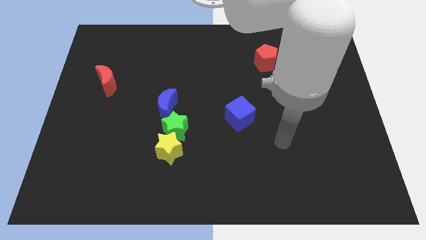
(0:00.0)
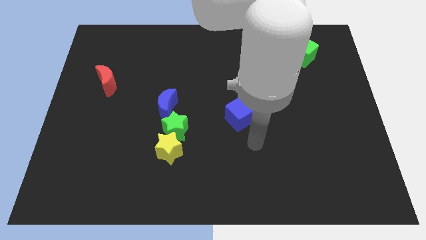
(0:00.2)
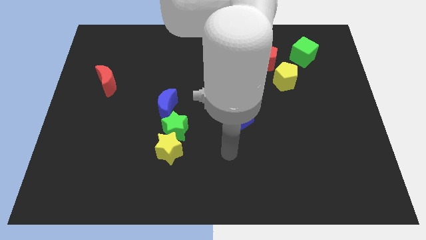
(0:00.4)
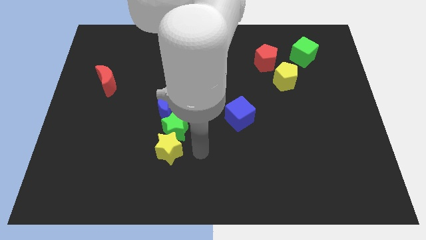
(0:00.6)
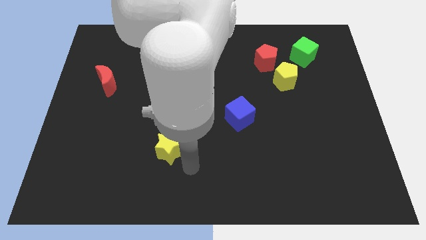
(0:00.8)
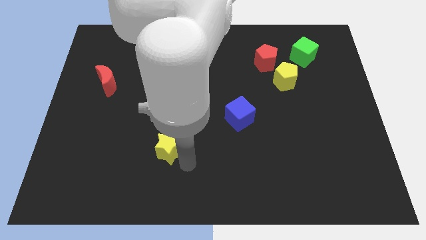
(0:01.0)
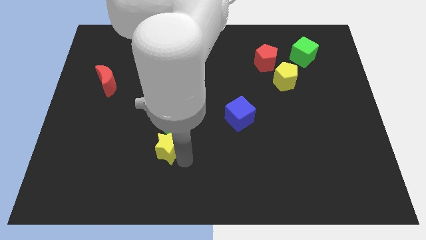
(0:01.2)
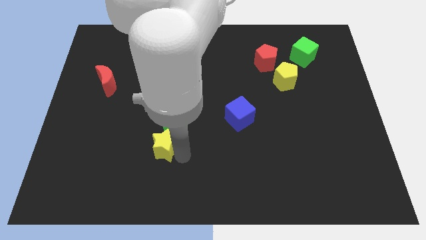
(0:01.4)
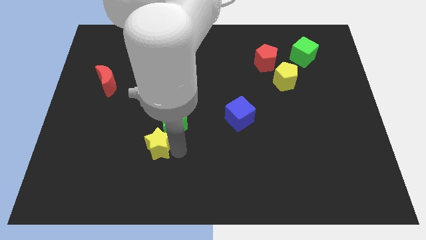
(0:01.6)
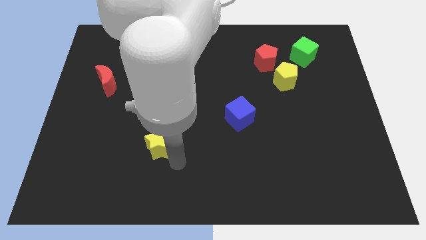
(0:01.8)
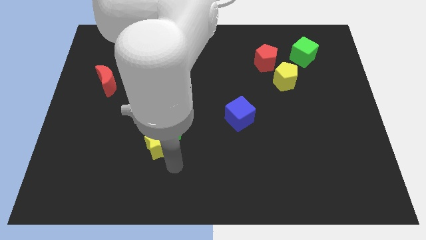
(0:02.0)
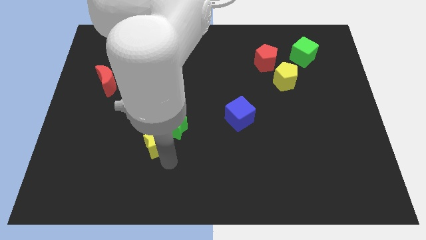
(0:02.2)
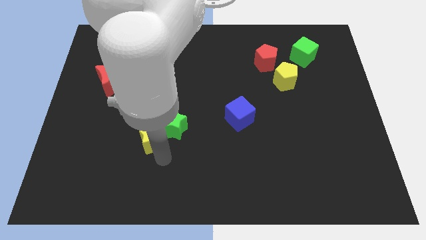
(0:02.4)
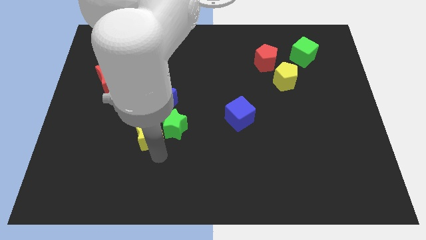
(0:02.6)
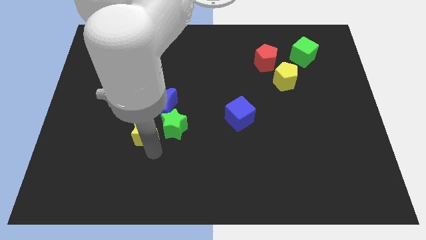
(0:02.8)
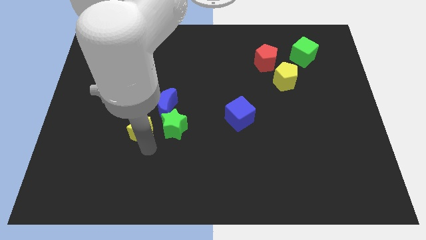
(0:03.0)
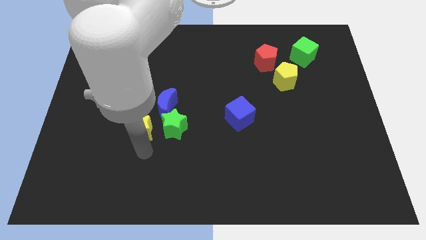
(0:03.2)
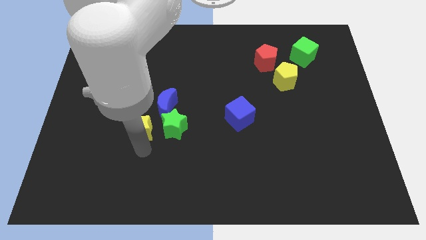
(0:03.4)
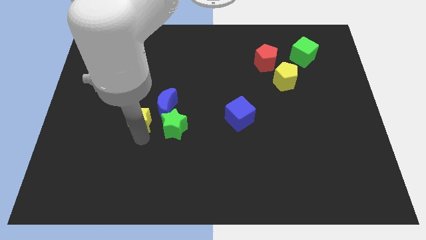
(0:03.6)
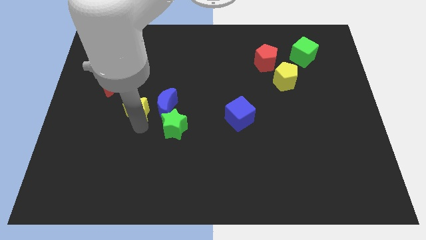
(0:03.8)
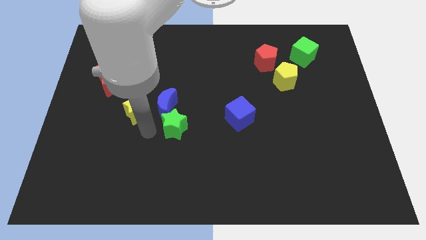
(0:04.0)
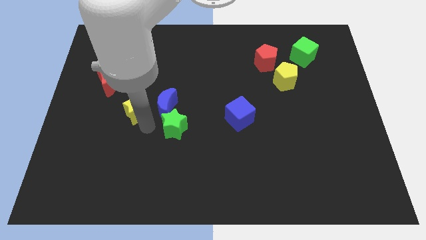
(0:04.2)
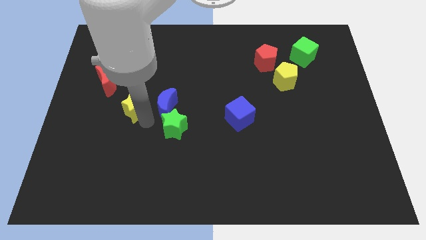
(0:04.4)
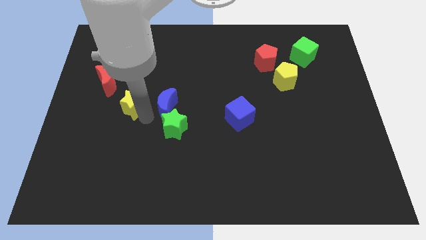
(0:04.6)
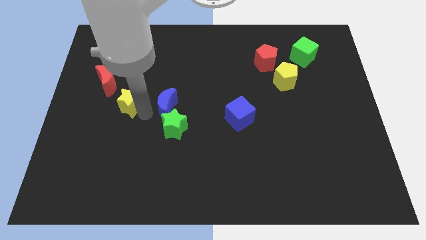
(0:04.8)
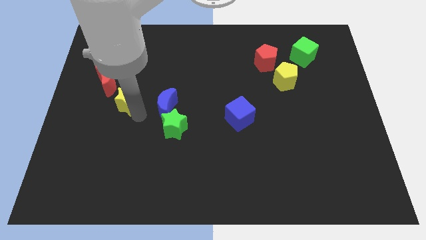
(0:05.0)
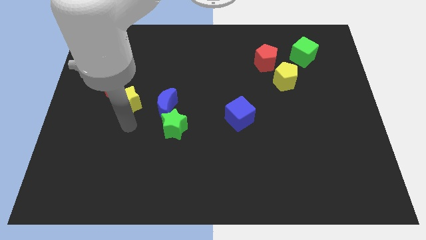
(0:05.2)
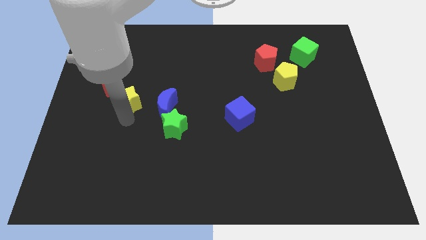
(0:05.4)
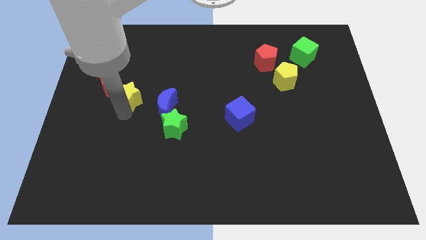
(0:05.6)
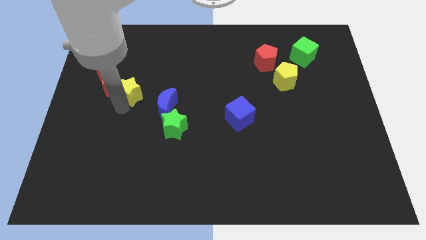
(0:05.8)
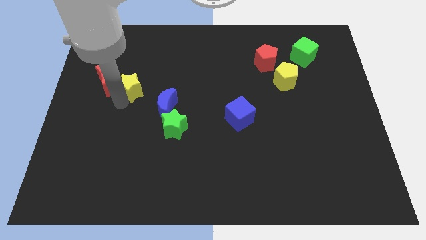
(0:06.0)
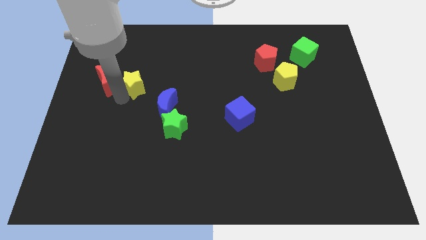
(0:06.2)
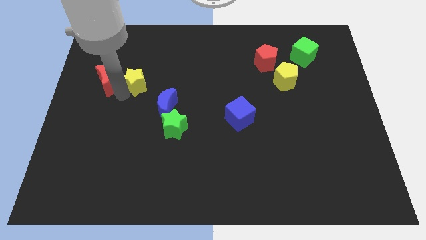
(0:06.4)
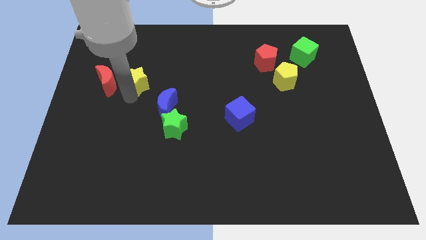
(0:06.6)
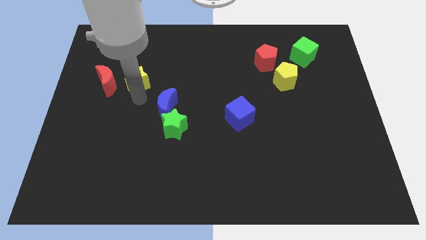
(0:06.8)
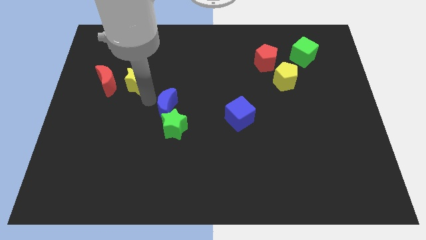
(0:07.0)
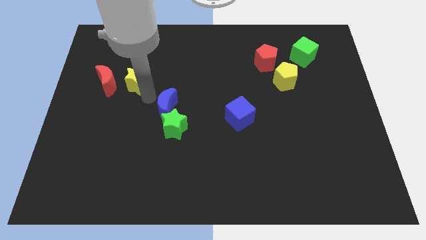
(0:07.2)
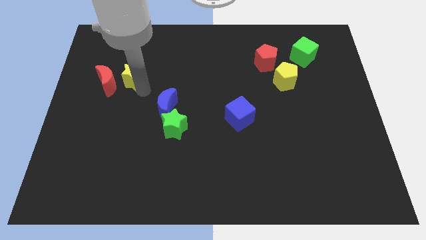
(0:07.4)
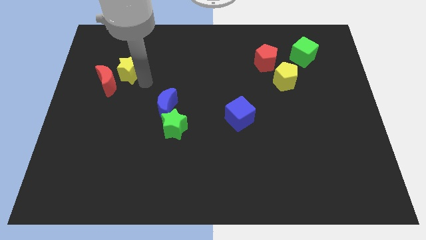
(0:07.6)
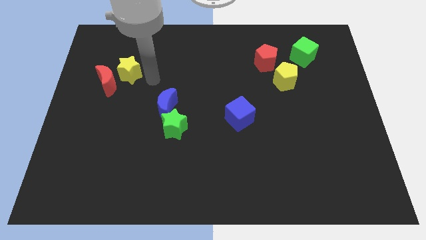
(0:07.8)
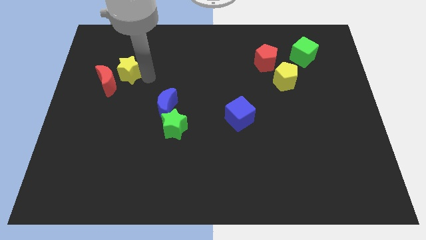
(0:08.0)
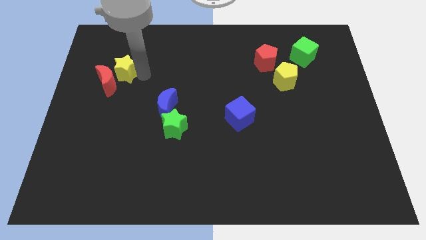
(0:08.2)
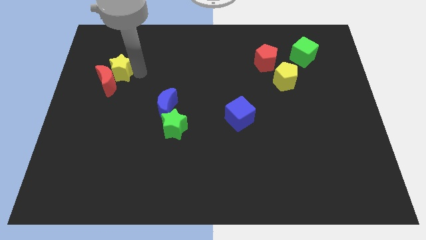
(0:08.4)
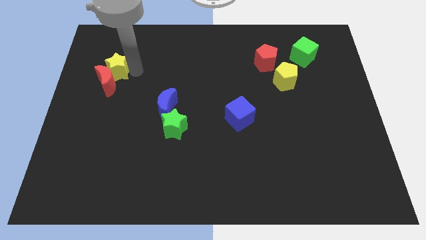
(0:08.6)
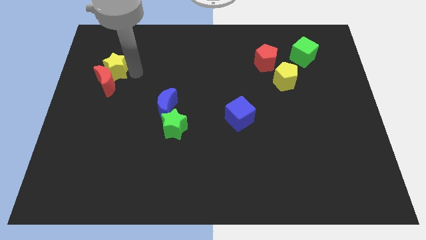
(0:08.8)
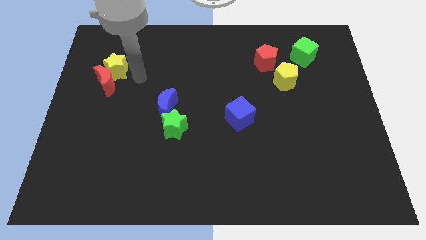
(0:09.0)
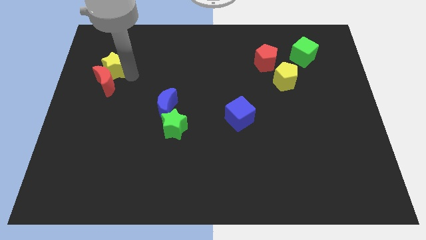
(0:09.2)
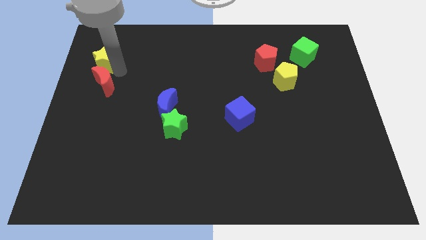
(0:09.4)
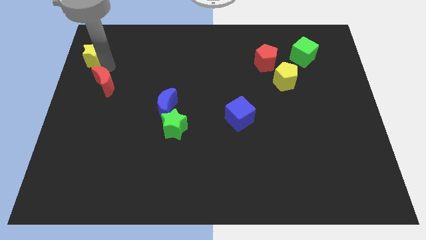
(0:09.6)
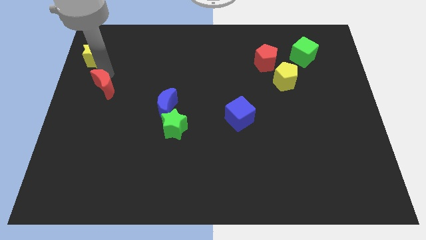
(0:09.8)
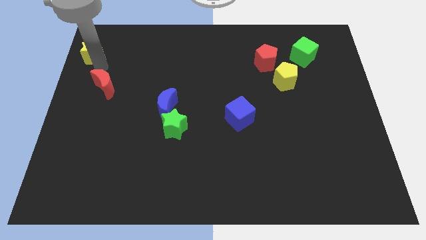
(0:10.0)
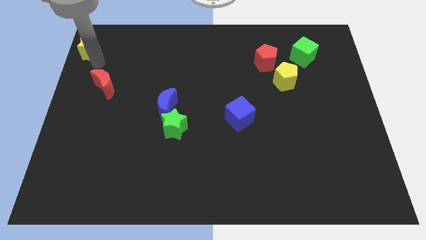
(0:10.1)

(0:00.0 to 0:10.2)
push the yellow star to the upper left corner

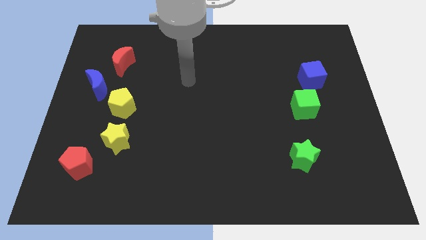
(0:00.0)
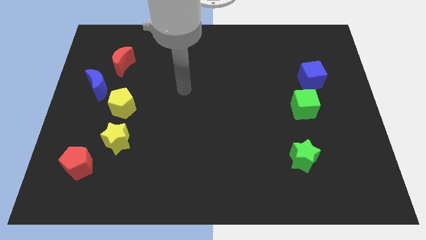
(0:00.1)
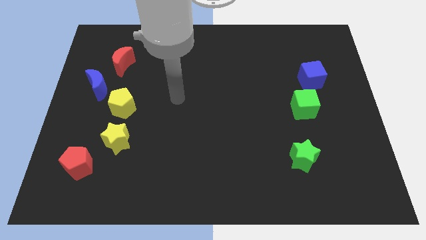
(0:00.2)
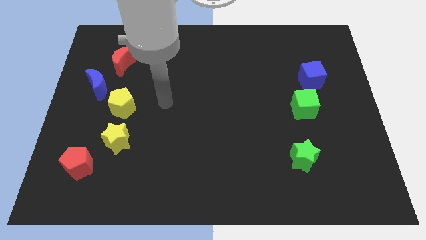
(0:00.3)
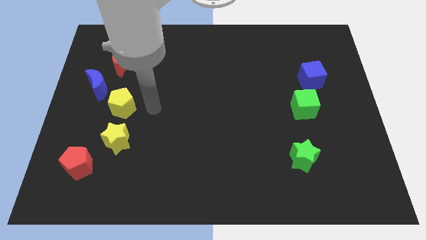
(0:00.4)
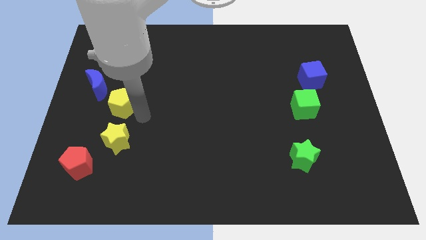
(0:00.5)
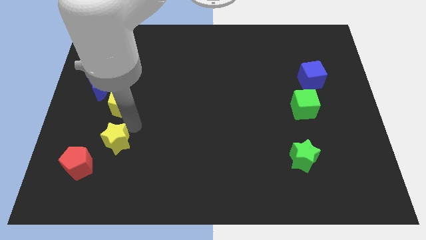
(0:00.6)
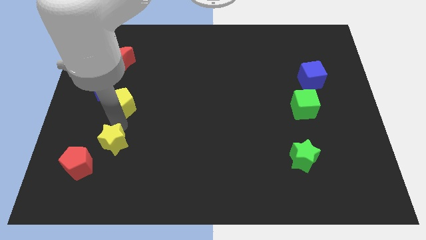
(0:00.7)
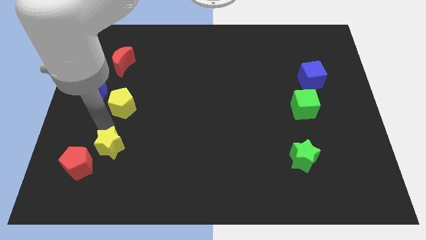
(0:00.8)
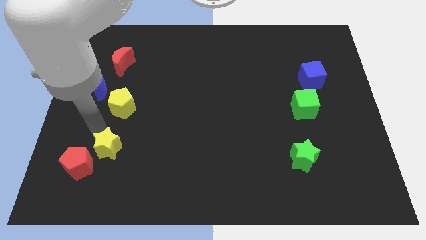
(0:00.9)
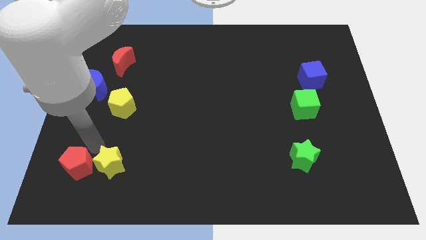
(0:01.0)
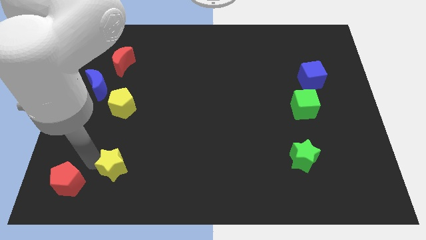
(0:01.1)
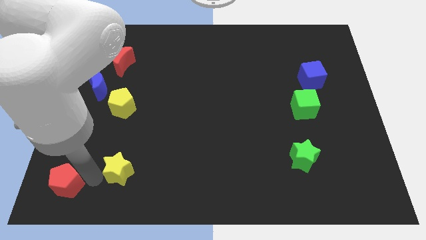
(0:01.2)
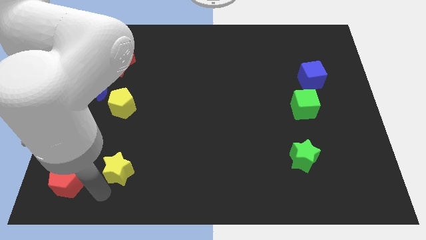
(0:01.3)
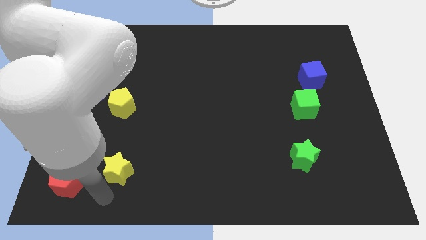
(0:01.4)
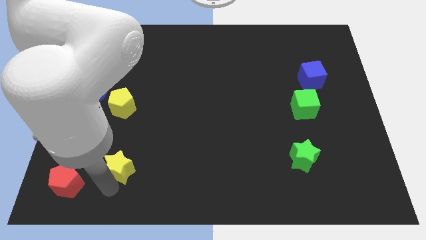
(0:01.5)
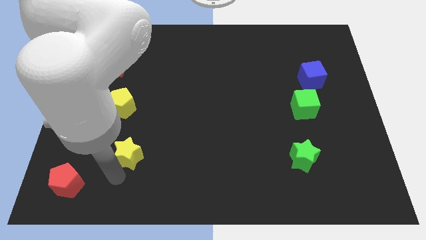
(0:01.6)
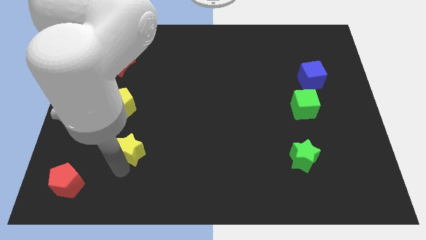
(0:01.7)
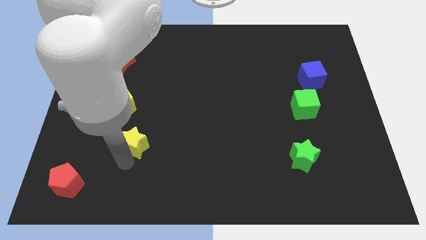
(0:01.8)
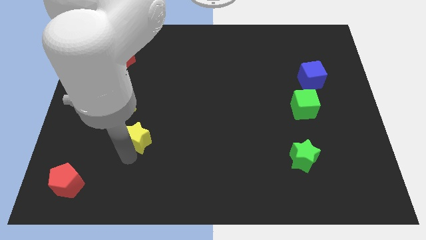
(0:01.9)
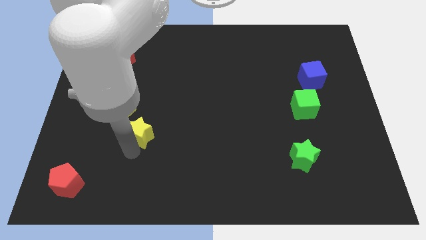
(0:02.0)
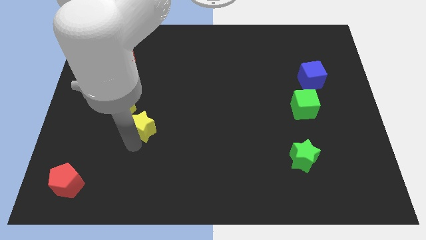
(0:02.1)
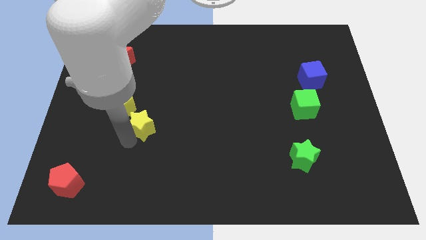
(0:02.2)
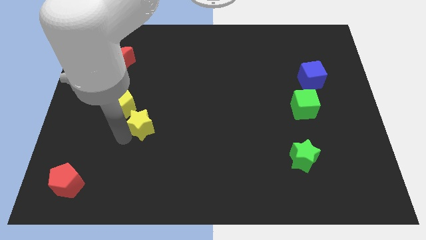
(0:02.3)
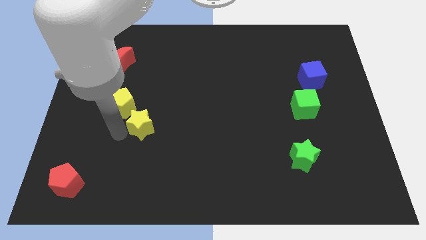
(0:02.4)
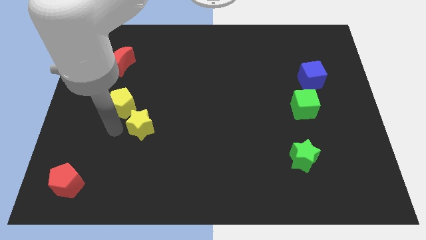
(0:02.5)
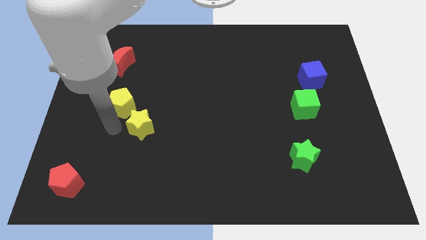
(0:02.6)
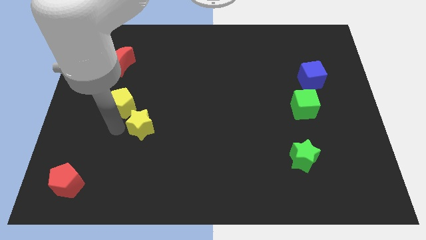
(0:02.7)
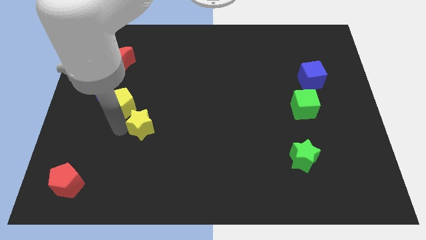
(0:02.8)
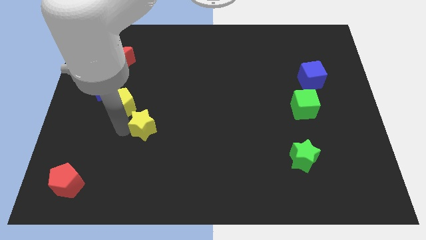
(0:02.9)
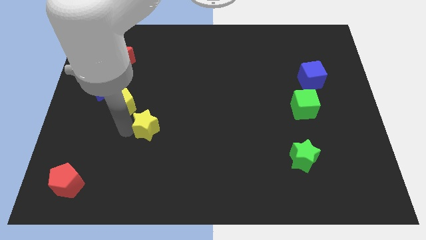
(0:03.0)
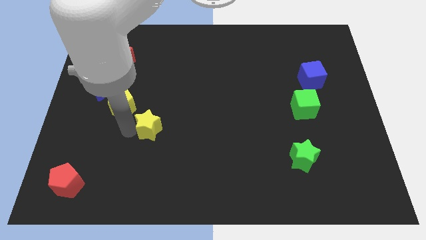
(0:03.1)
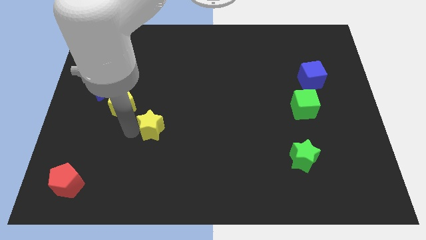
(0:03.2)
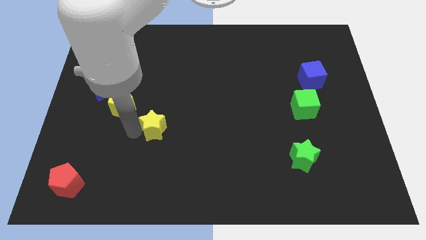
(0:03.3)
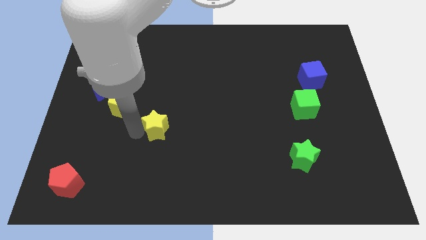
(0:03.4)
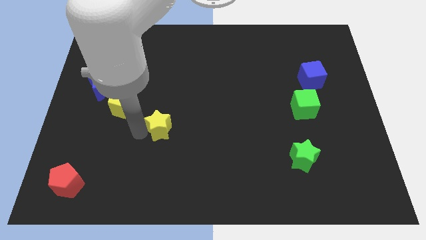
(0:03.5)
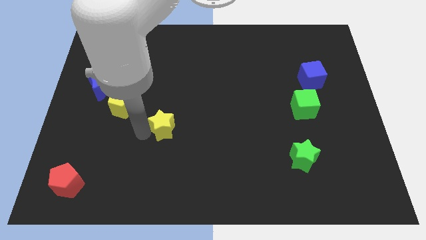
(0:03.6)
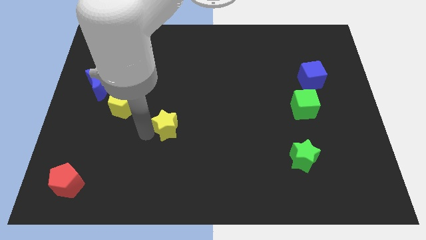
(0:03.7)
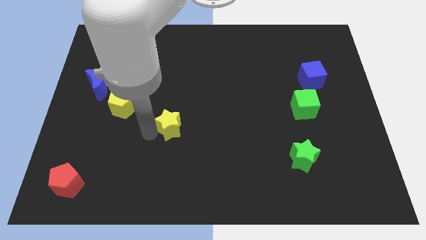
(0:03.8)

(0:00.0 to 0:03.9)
slide the yellow star to the middle
